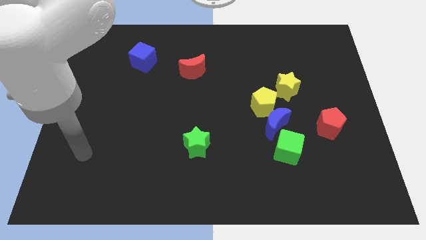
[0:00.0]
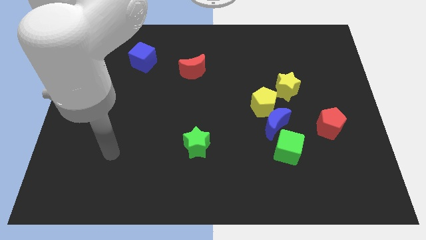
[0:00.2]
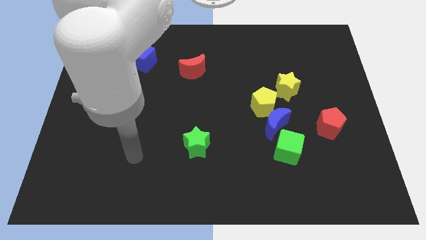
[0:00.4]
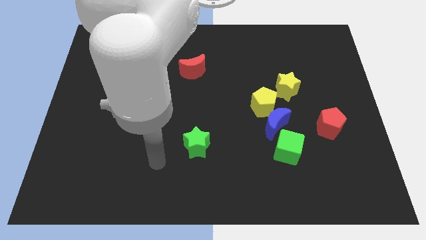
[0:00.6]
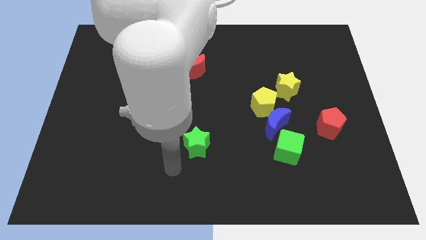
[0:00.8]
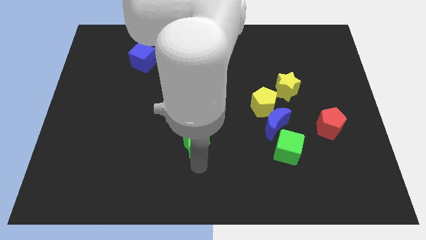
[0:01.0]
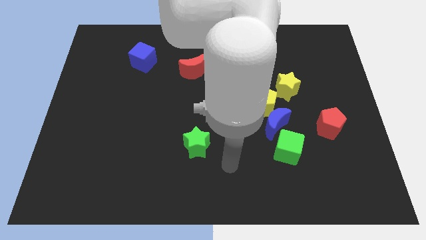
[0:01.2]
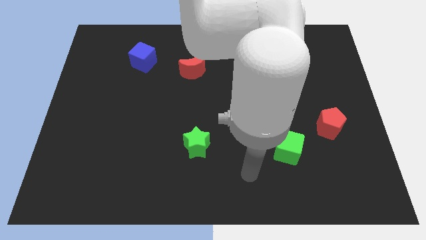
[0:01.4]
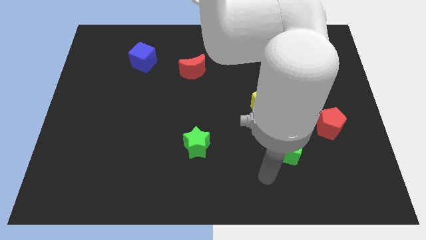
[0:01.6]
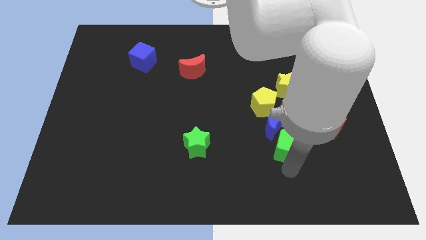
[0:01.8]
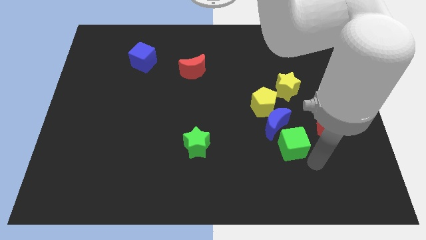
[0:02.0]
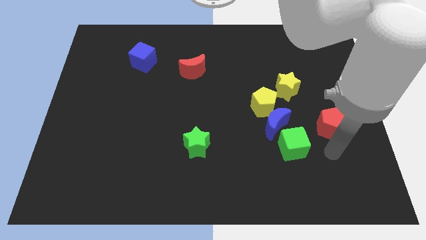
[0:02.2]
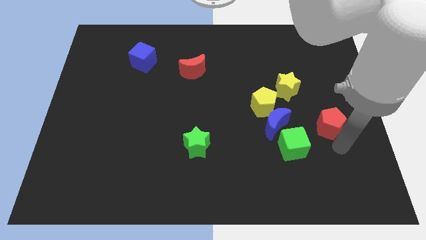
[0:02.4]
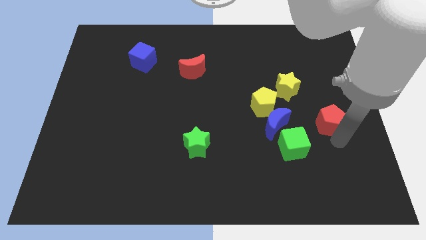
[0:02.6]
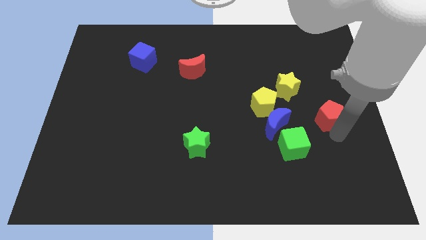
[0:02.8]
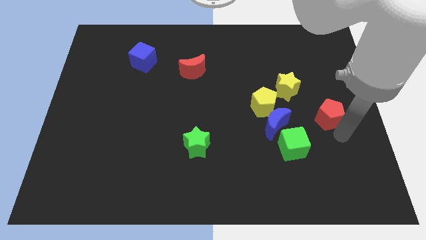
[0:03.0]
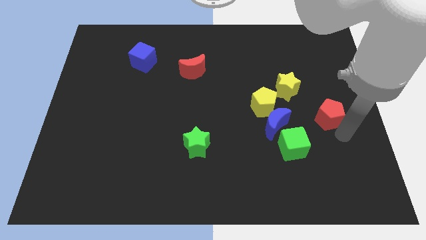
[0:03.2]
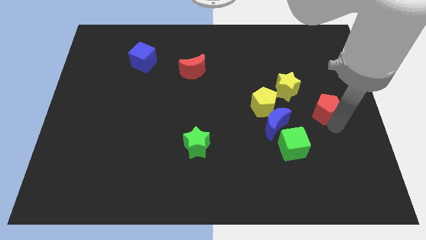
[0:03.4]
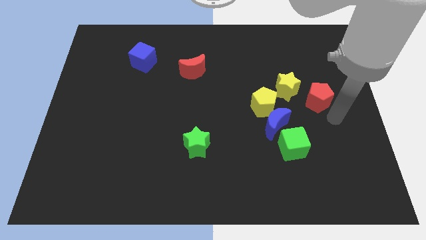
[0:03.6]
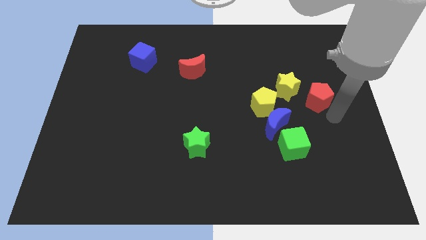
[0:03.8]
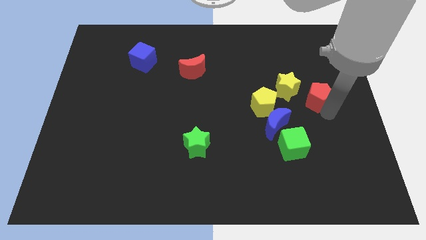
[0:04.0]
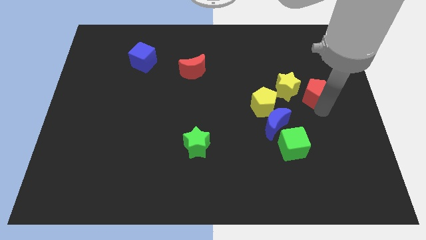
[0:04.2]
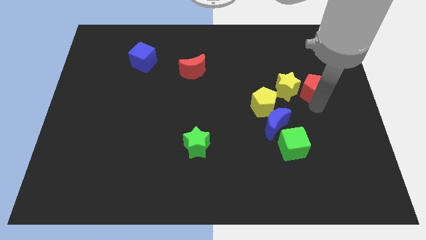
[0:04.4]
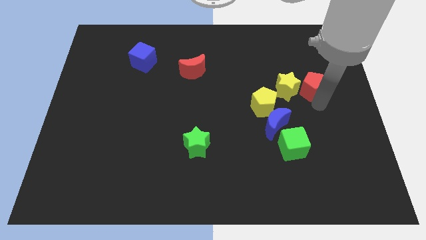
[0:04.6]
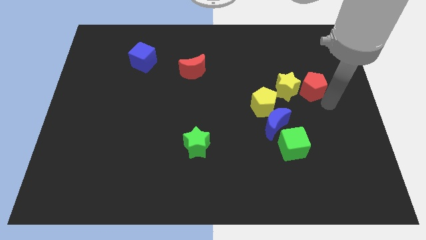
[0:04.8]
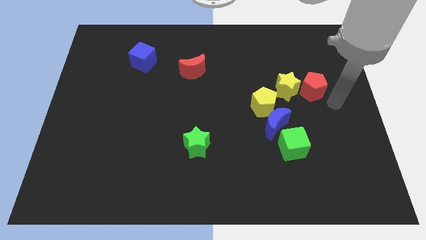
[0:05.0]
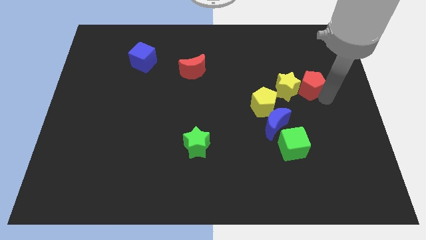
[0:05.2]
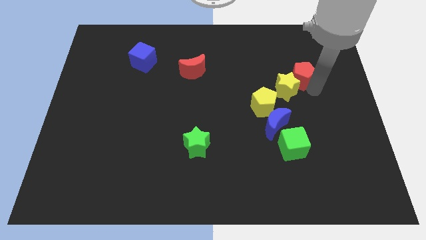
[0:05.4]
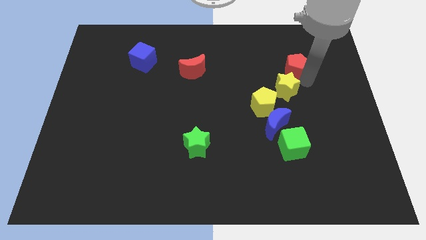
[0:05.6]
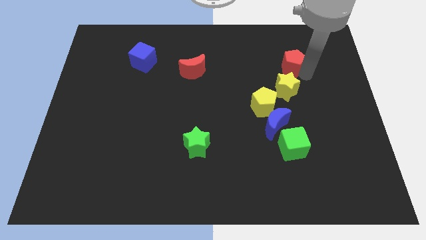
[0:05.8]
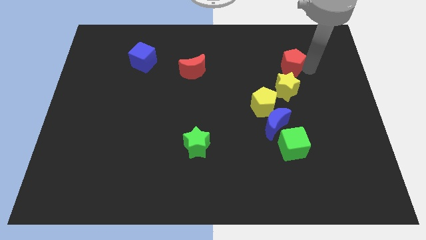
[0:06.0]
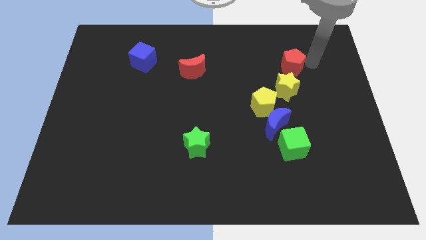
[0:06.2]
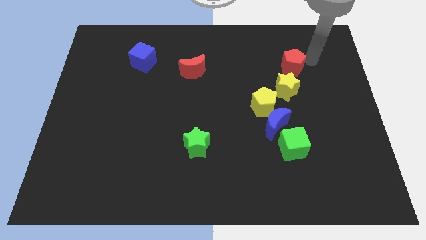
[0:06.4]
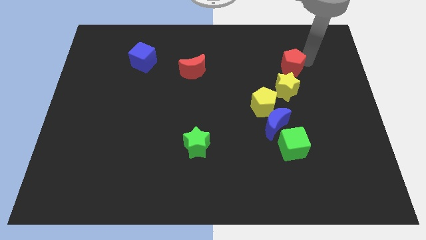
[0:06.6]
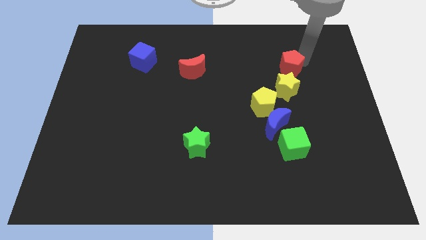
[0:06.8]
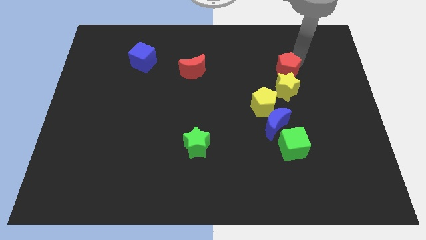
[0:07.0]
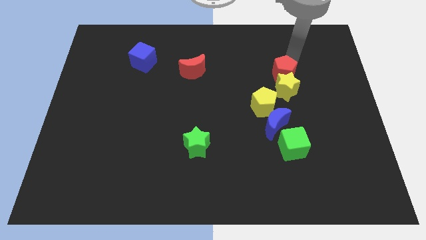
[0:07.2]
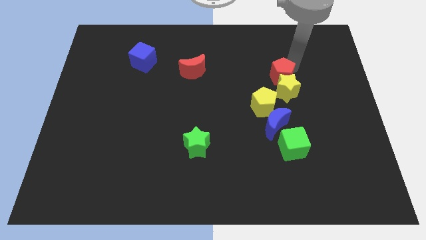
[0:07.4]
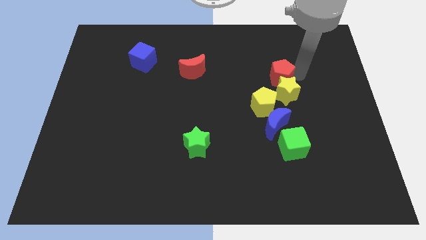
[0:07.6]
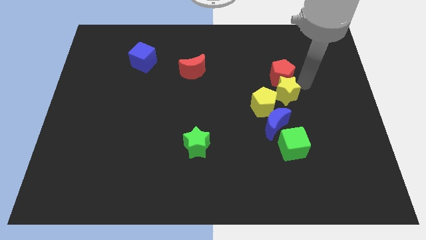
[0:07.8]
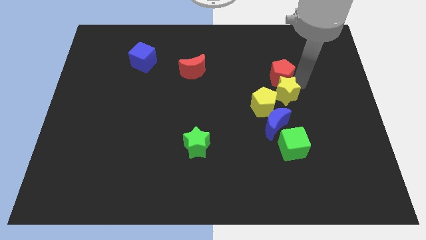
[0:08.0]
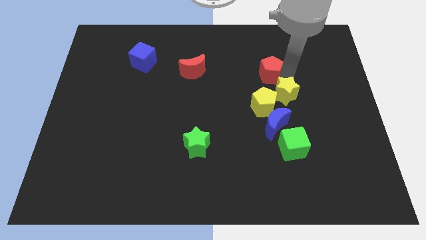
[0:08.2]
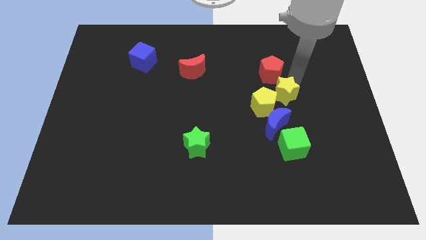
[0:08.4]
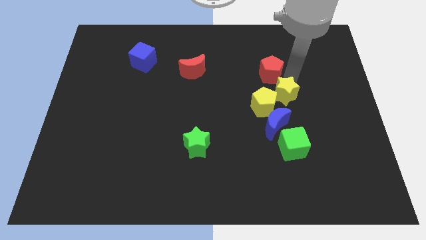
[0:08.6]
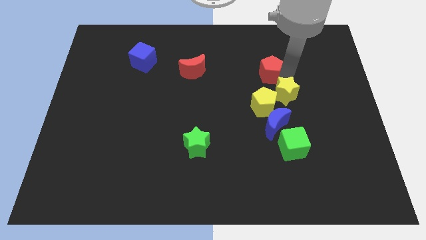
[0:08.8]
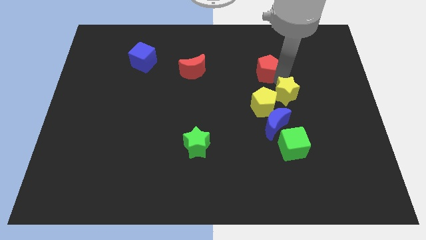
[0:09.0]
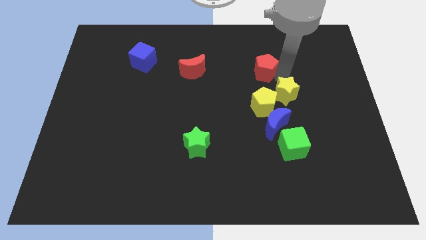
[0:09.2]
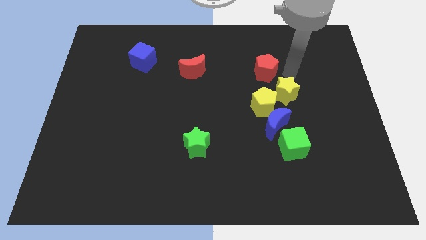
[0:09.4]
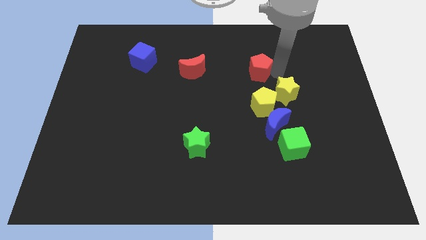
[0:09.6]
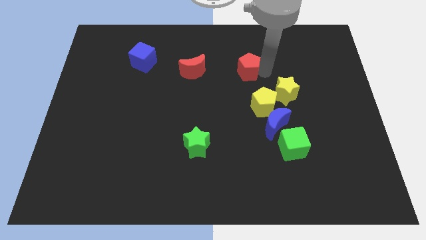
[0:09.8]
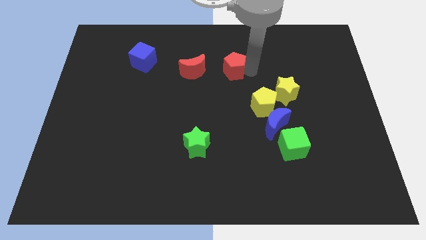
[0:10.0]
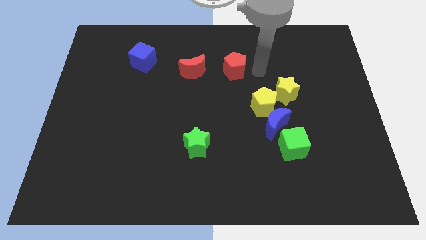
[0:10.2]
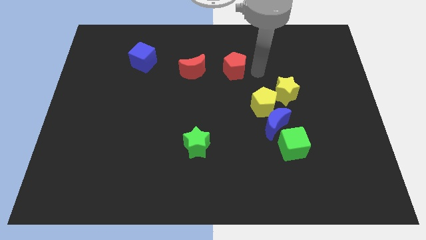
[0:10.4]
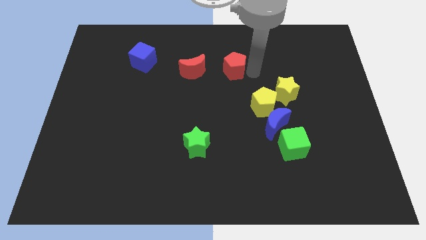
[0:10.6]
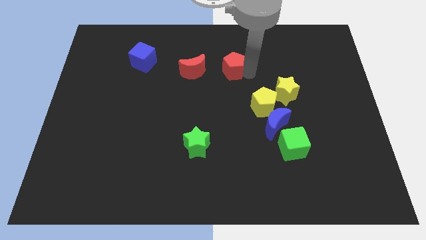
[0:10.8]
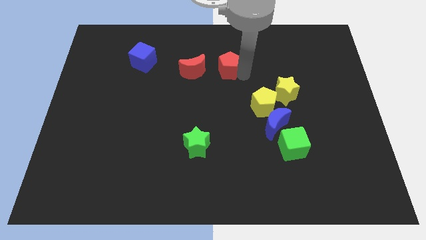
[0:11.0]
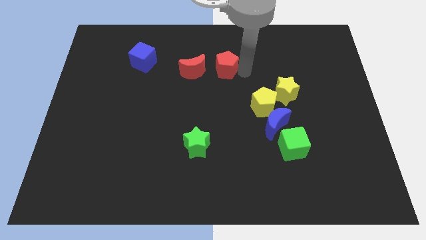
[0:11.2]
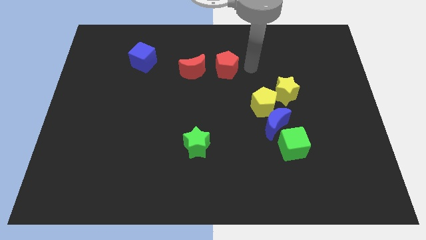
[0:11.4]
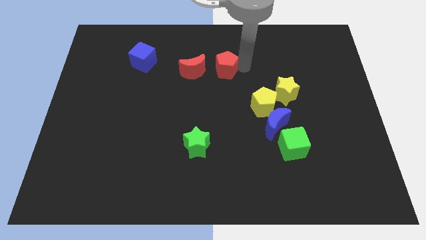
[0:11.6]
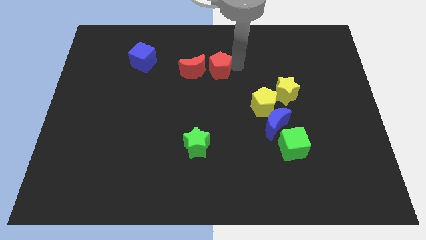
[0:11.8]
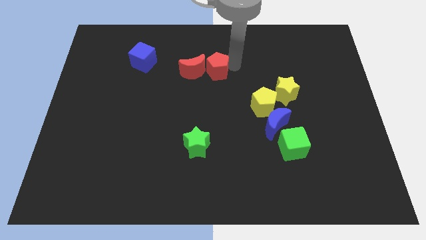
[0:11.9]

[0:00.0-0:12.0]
move the red pentagon towards the red moon

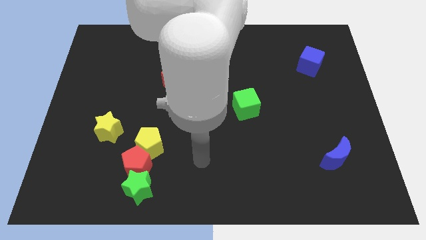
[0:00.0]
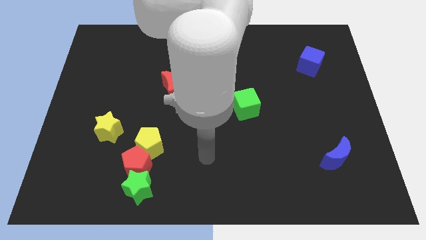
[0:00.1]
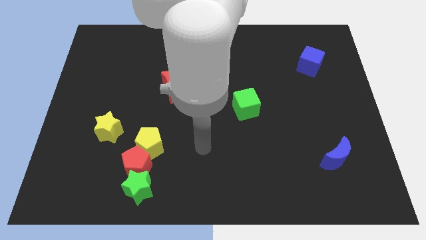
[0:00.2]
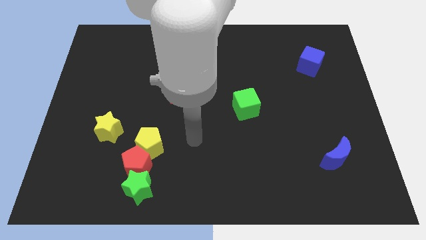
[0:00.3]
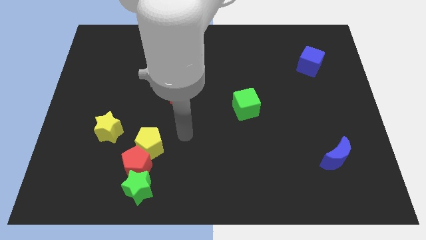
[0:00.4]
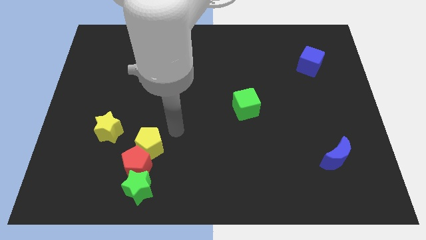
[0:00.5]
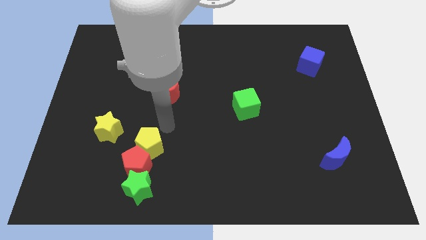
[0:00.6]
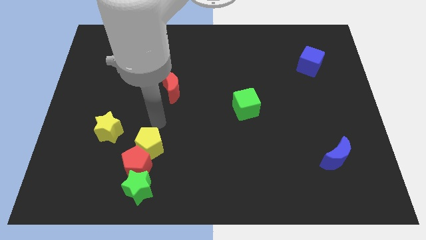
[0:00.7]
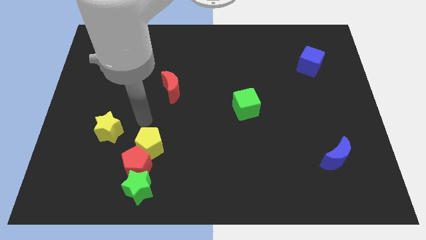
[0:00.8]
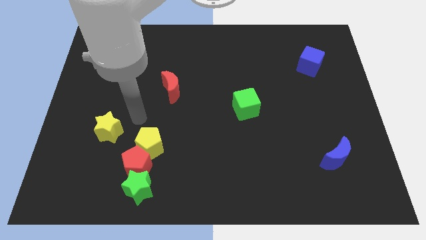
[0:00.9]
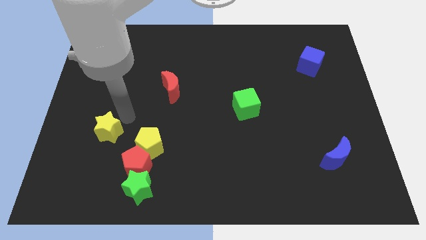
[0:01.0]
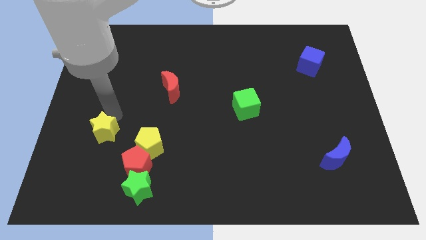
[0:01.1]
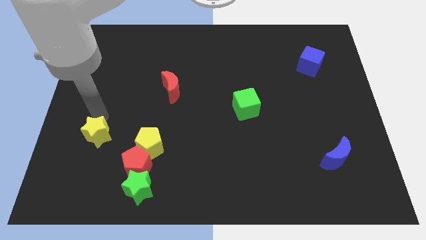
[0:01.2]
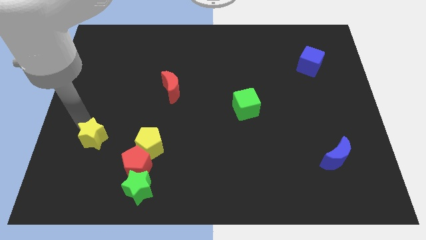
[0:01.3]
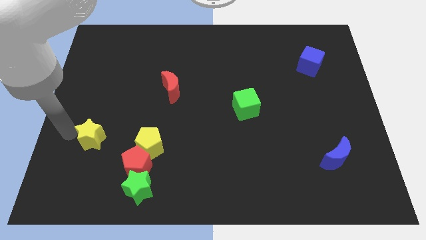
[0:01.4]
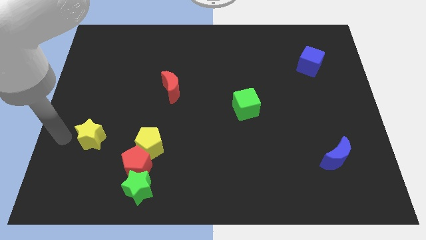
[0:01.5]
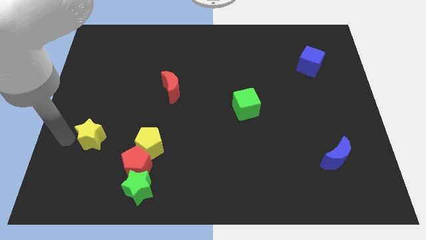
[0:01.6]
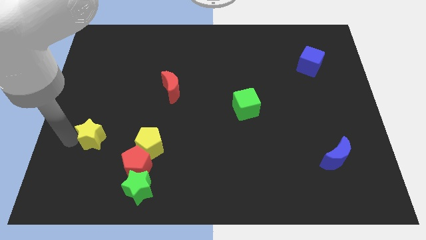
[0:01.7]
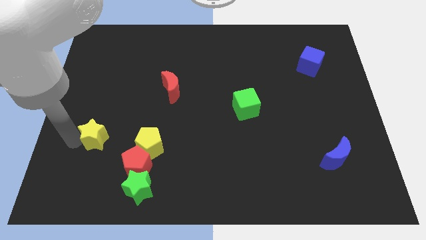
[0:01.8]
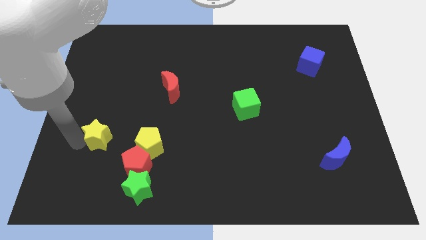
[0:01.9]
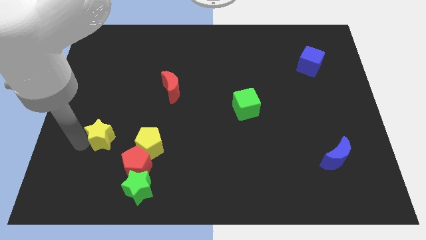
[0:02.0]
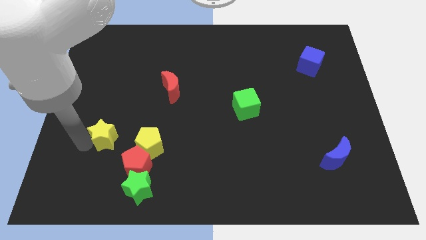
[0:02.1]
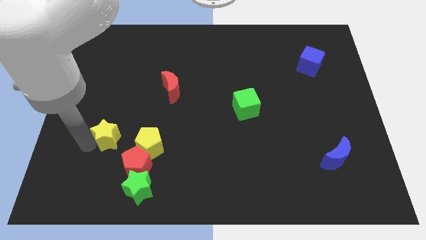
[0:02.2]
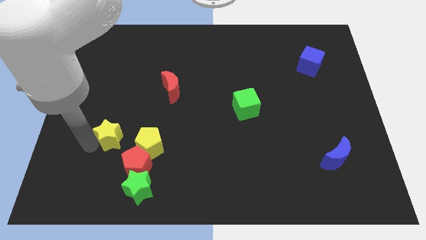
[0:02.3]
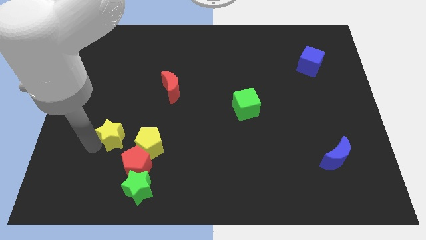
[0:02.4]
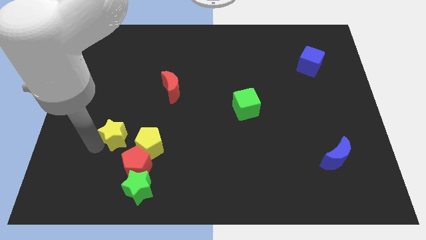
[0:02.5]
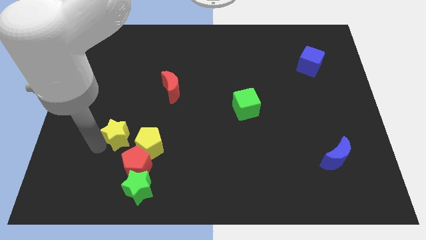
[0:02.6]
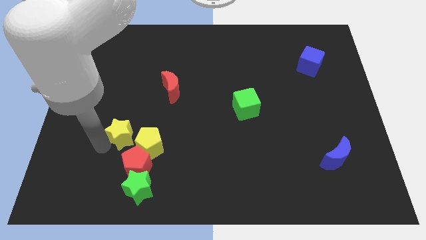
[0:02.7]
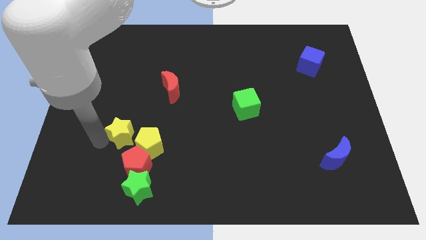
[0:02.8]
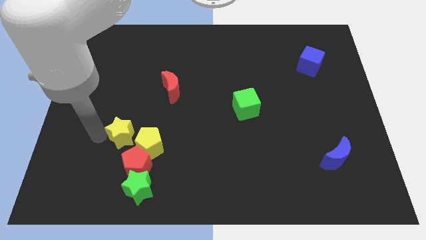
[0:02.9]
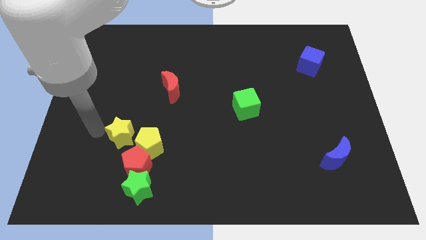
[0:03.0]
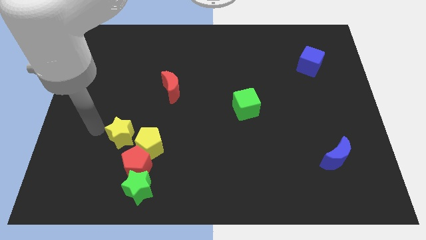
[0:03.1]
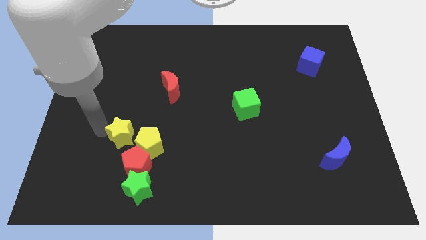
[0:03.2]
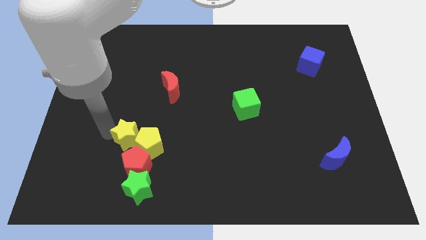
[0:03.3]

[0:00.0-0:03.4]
move the yellow star next to the yellow pentagon
